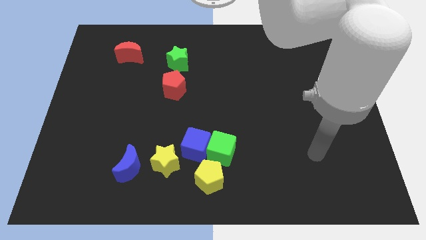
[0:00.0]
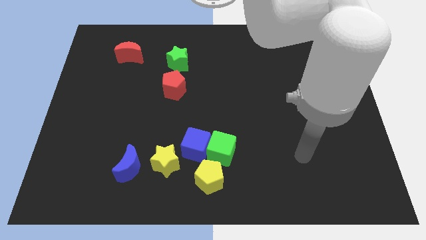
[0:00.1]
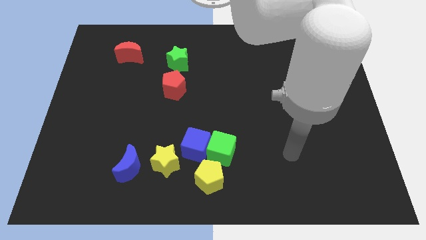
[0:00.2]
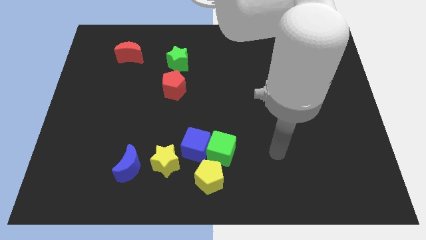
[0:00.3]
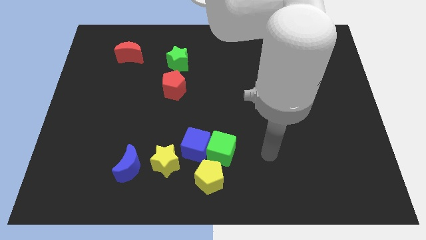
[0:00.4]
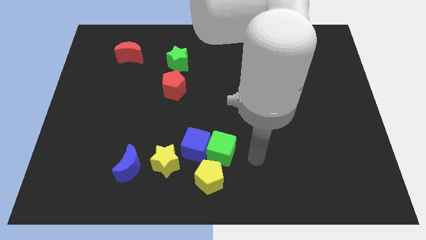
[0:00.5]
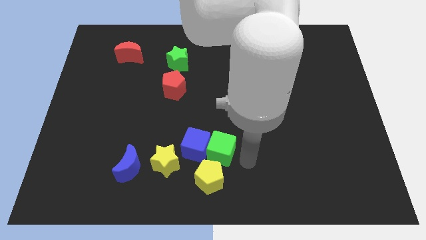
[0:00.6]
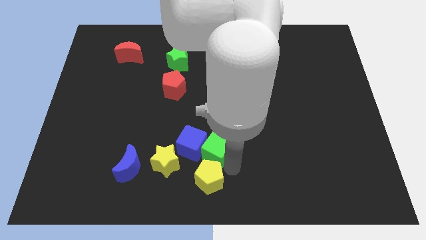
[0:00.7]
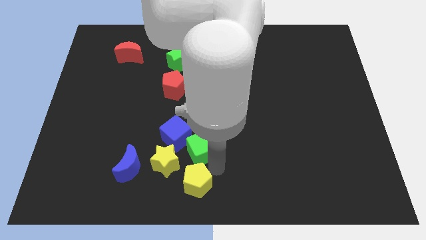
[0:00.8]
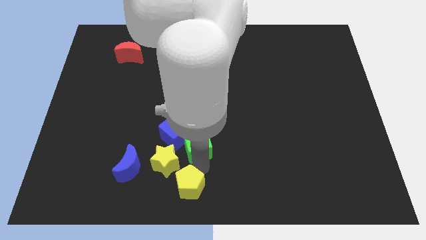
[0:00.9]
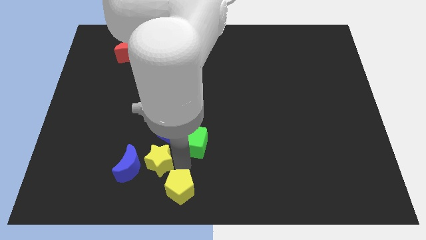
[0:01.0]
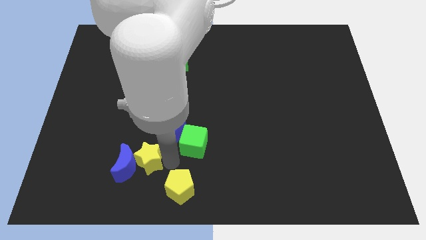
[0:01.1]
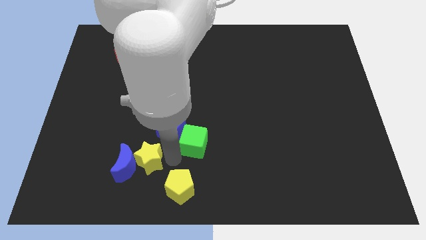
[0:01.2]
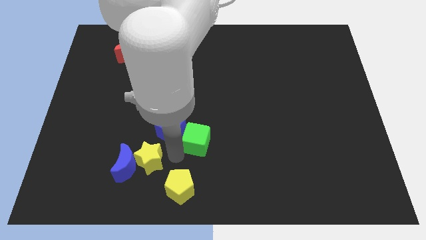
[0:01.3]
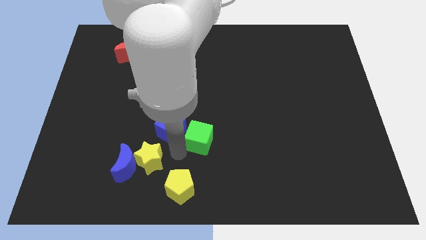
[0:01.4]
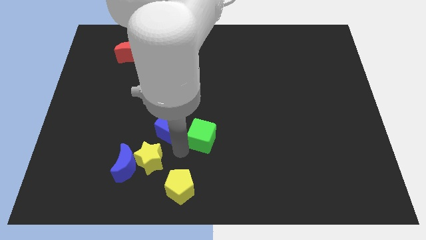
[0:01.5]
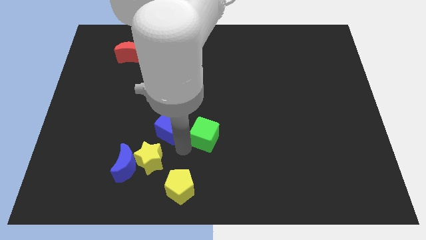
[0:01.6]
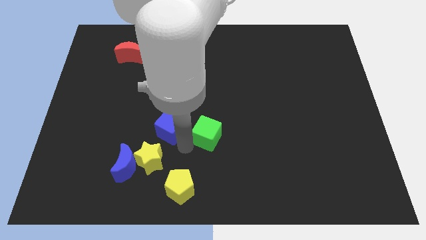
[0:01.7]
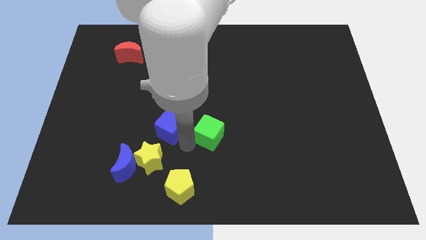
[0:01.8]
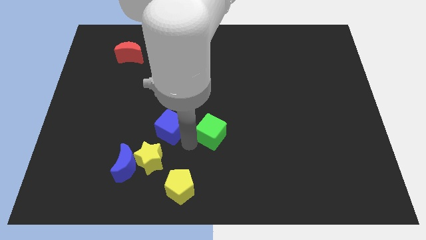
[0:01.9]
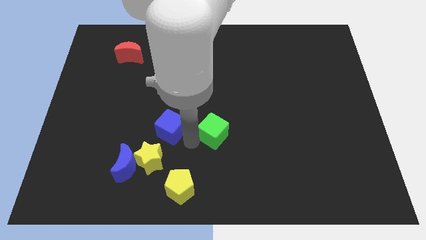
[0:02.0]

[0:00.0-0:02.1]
pull the green cube apart from the blue cube and yellow pentagon

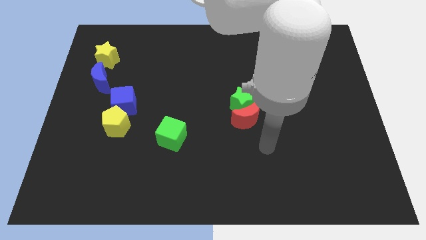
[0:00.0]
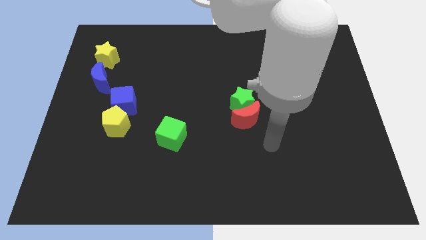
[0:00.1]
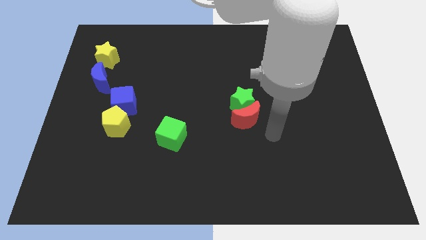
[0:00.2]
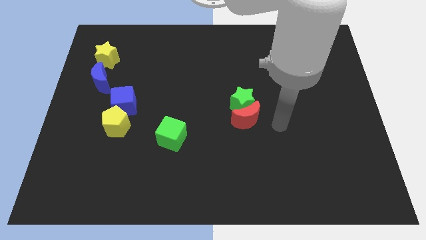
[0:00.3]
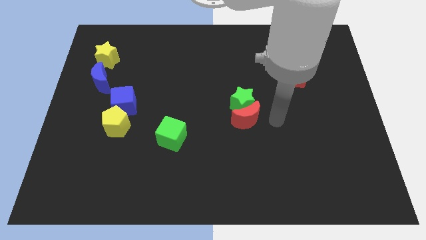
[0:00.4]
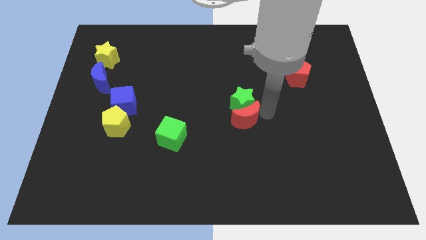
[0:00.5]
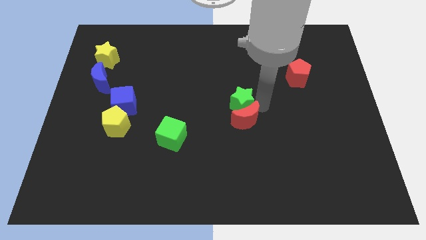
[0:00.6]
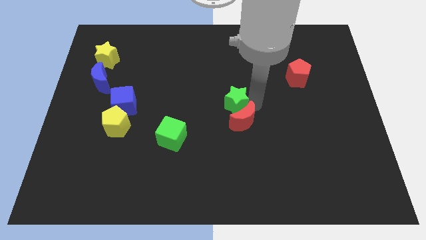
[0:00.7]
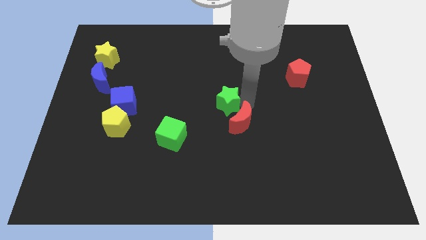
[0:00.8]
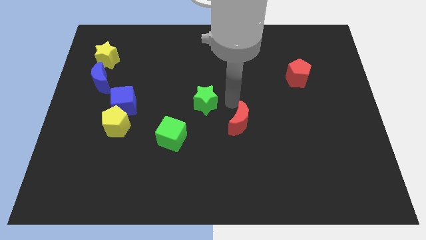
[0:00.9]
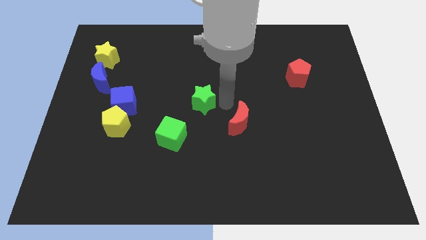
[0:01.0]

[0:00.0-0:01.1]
pull the red moon apart from the green star

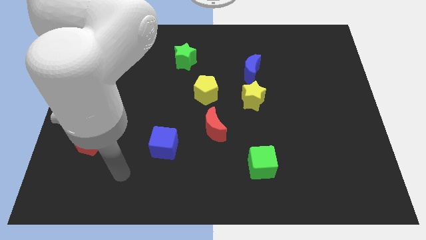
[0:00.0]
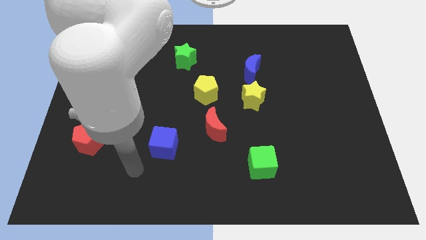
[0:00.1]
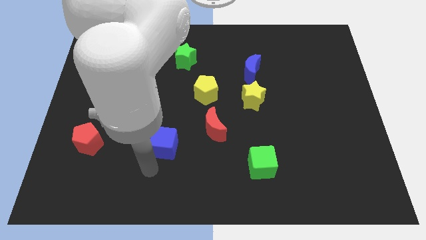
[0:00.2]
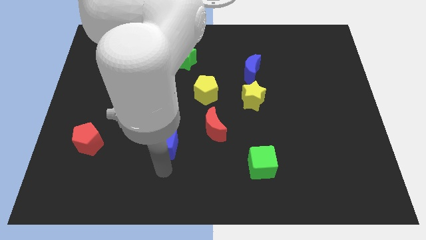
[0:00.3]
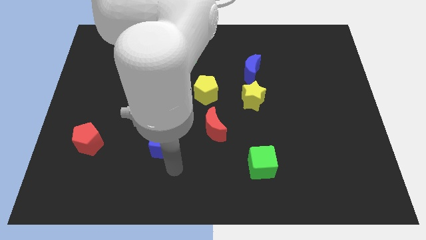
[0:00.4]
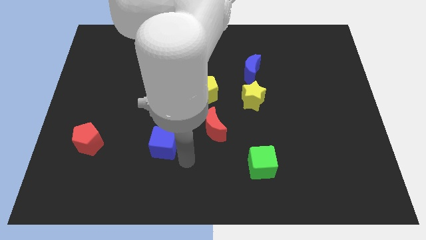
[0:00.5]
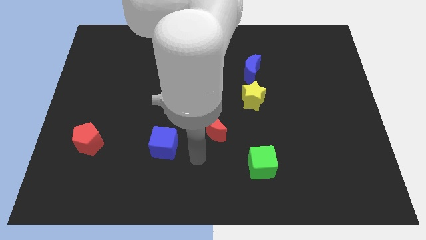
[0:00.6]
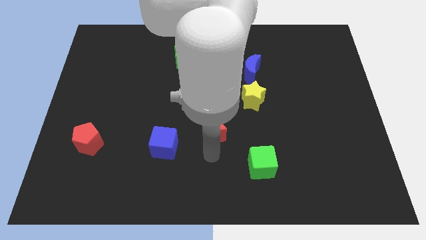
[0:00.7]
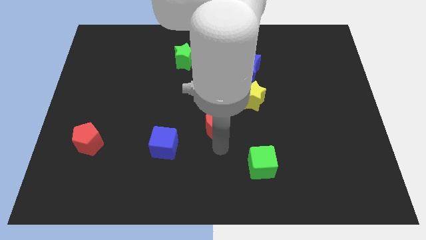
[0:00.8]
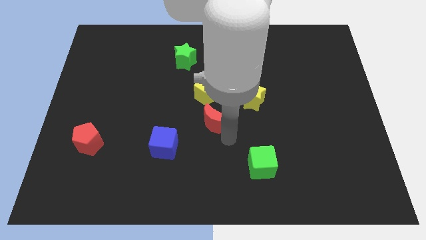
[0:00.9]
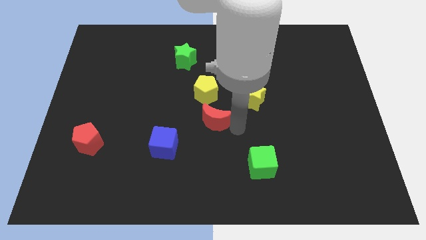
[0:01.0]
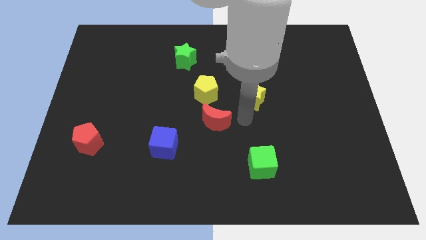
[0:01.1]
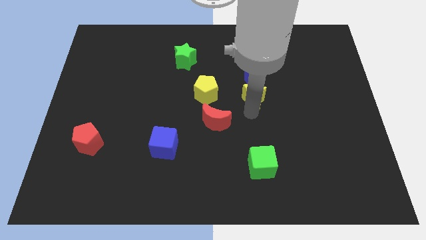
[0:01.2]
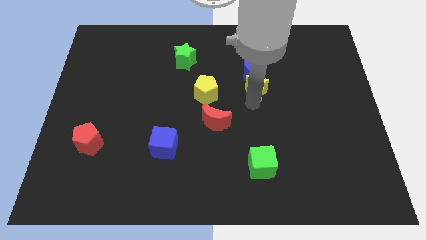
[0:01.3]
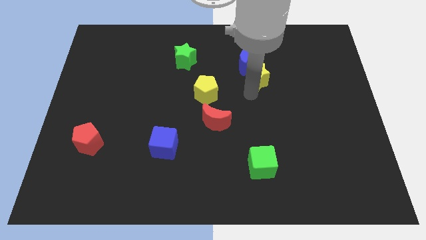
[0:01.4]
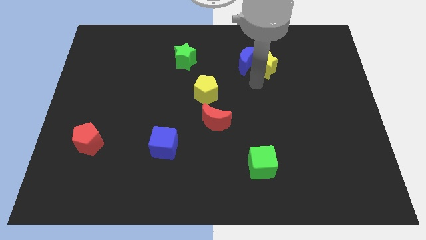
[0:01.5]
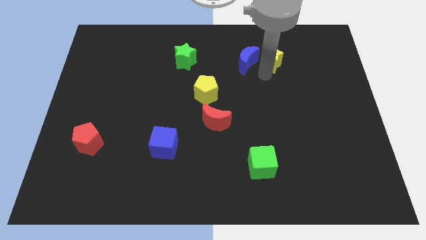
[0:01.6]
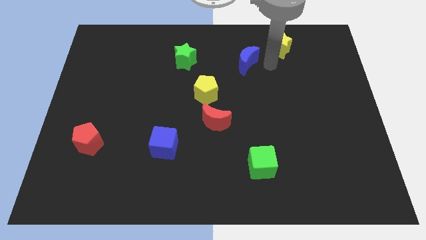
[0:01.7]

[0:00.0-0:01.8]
pull the blue moon apart from the yellow star

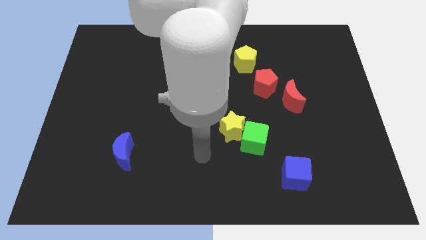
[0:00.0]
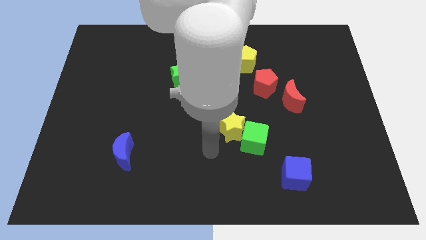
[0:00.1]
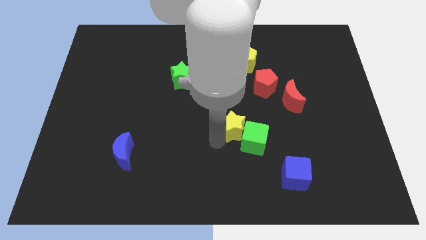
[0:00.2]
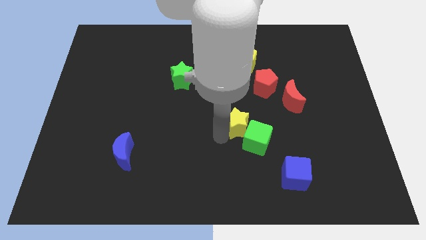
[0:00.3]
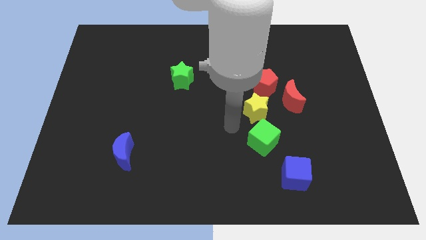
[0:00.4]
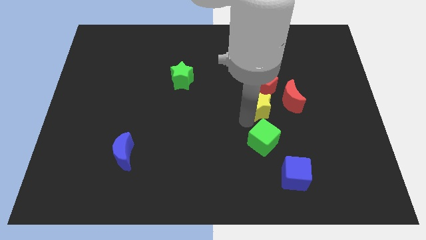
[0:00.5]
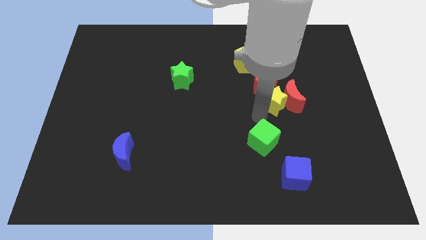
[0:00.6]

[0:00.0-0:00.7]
separate the green cube from the yellow star

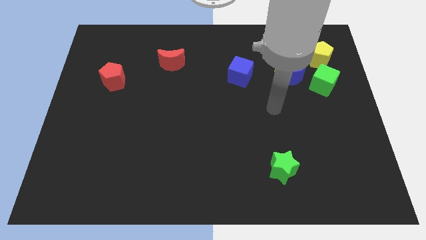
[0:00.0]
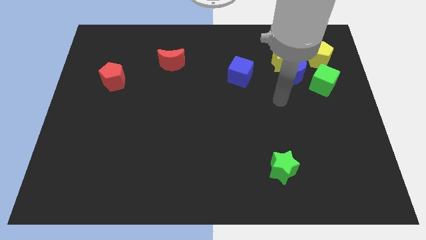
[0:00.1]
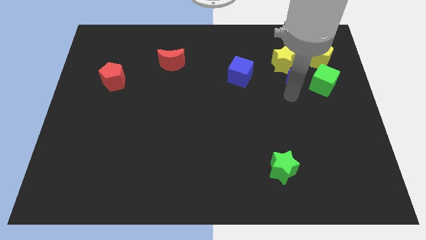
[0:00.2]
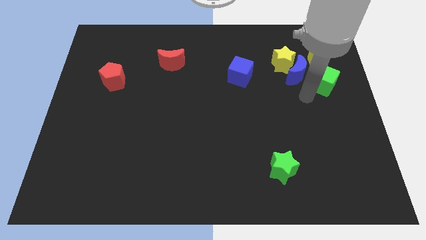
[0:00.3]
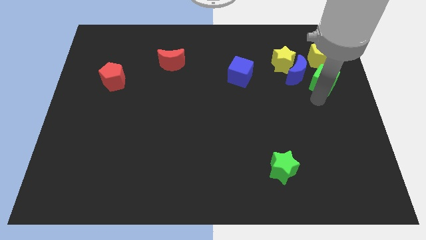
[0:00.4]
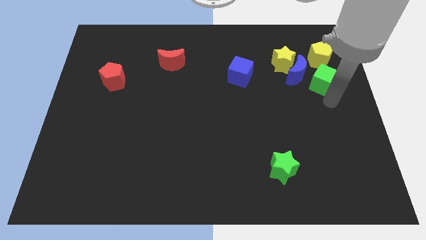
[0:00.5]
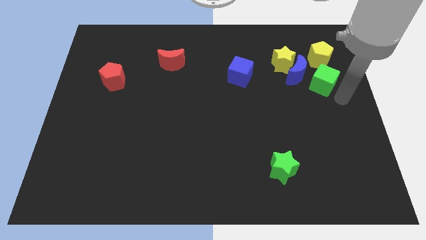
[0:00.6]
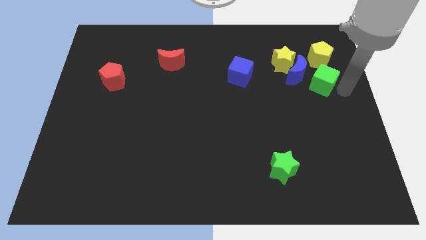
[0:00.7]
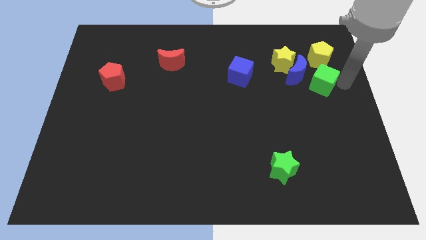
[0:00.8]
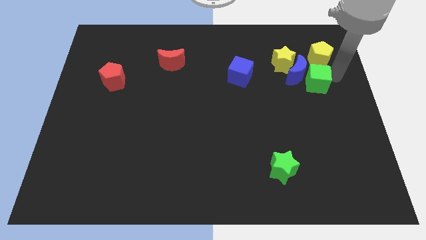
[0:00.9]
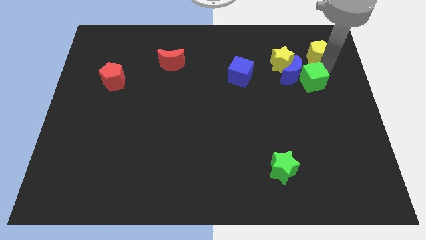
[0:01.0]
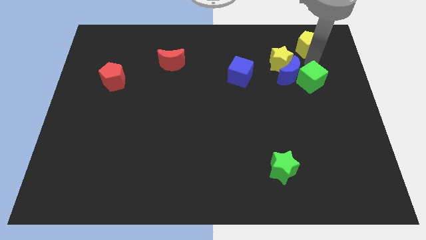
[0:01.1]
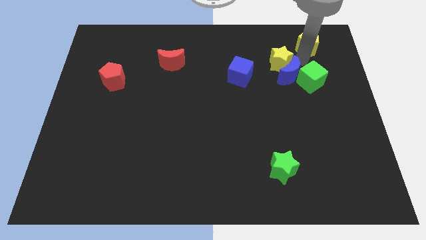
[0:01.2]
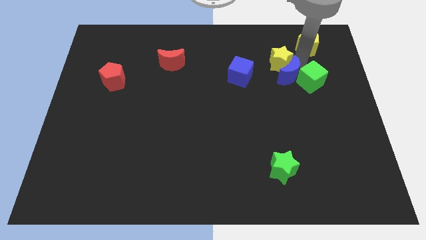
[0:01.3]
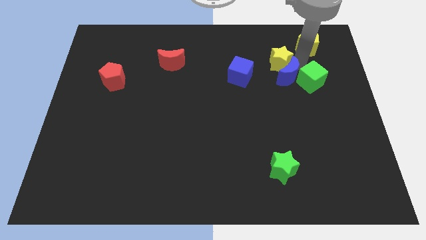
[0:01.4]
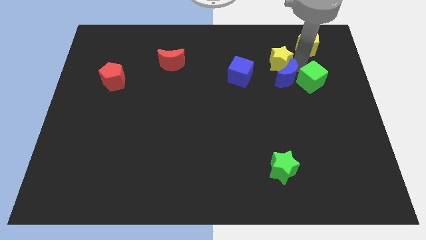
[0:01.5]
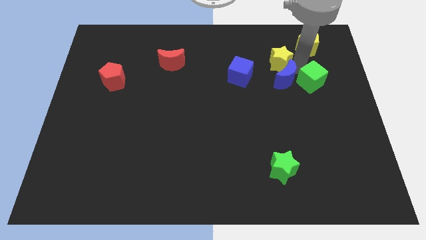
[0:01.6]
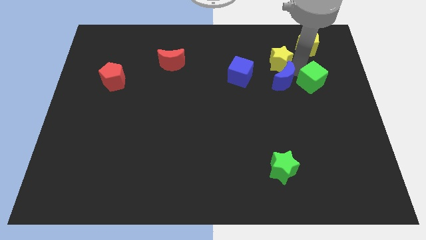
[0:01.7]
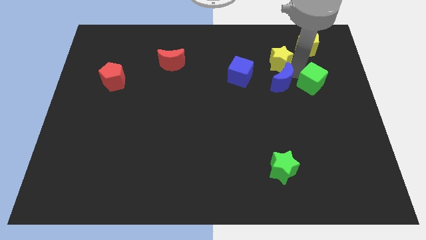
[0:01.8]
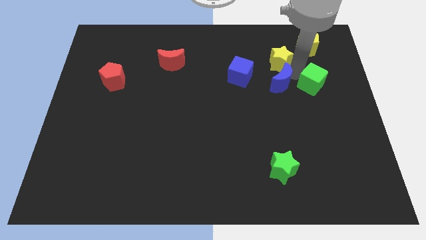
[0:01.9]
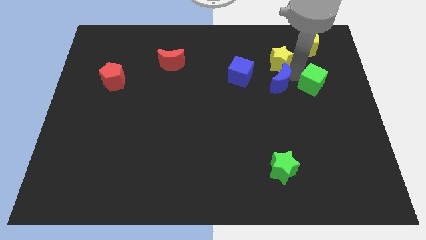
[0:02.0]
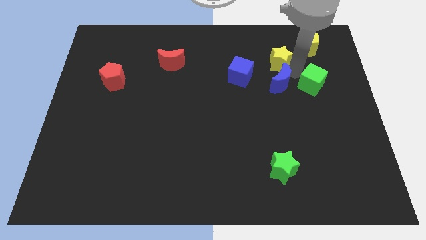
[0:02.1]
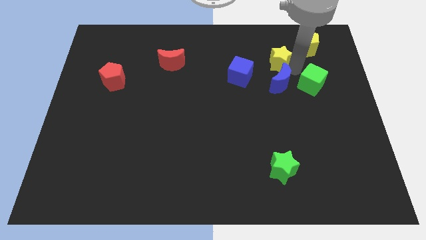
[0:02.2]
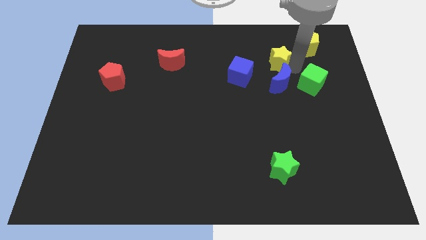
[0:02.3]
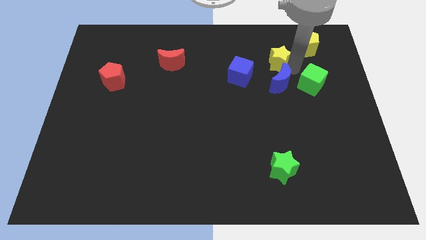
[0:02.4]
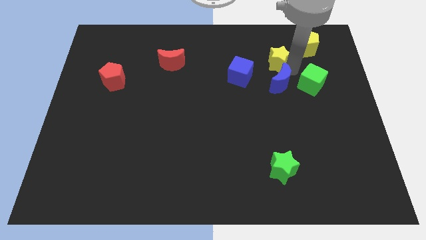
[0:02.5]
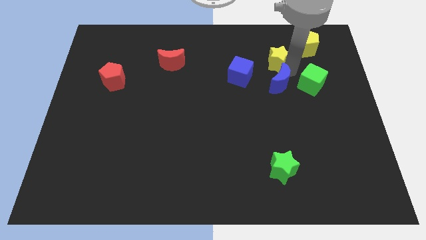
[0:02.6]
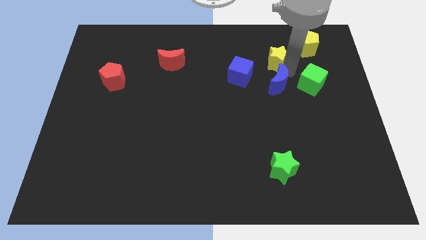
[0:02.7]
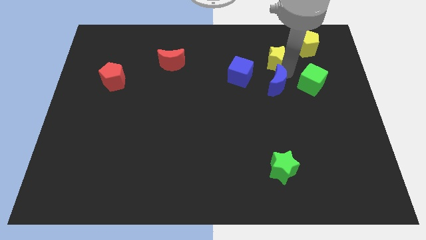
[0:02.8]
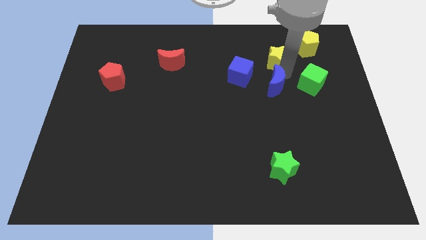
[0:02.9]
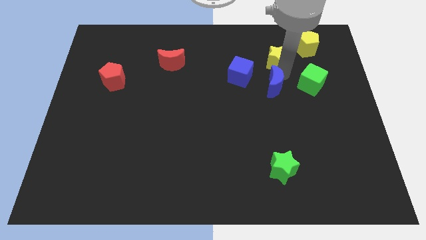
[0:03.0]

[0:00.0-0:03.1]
pull the blue moon apart from the group

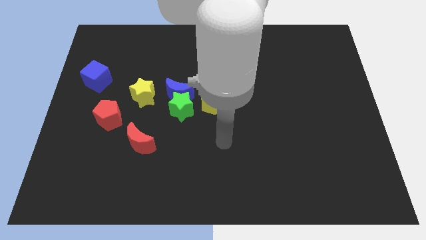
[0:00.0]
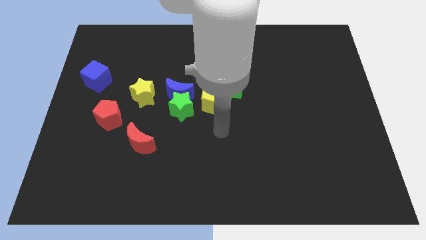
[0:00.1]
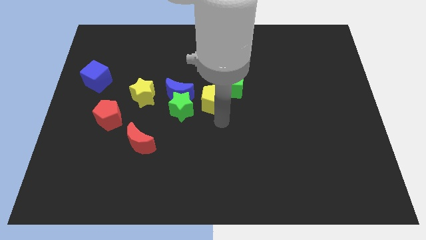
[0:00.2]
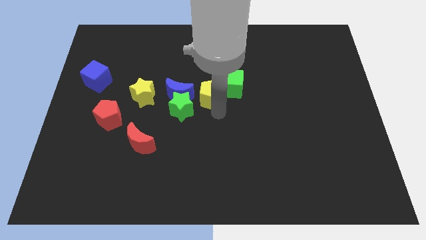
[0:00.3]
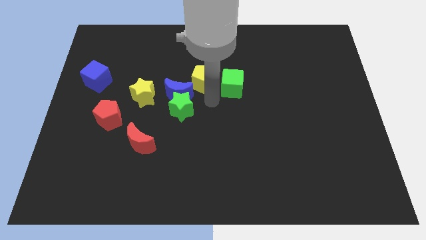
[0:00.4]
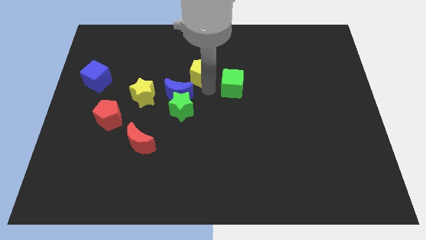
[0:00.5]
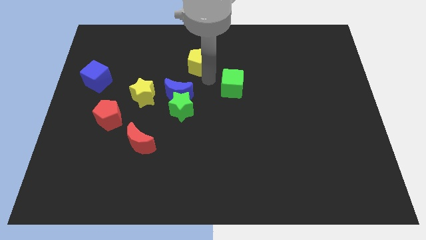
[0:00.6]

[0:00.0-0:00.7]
move the green cube away from the yellow pentagon
